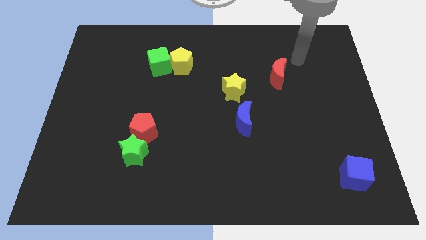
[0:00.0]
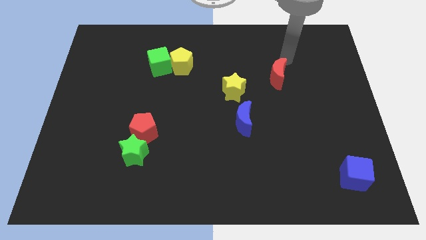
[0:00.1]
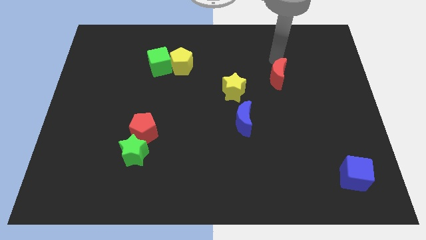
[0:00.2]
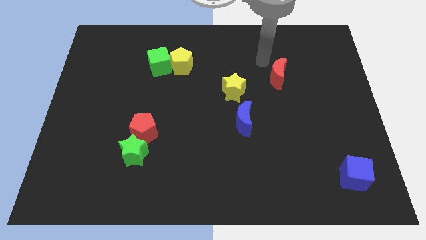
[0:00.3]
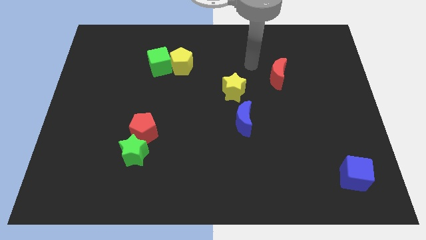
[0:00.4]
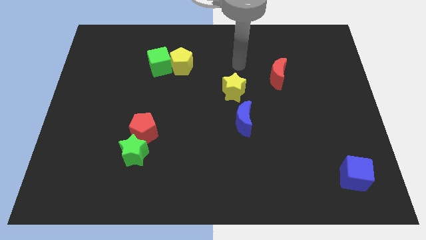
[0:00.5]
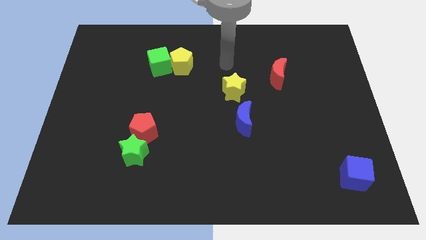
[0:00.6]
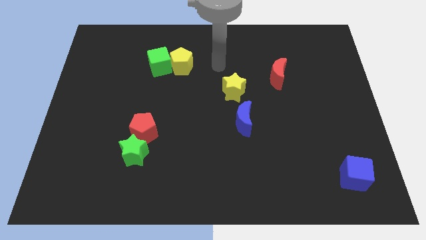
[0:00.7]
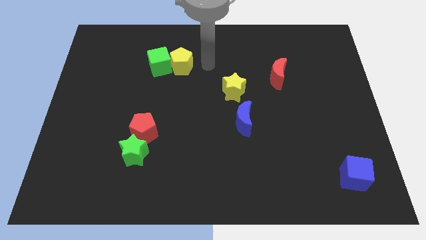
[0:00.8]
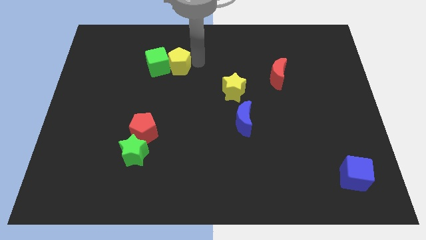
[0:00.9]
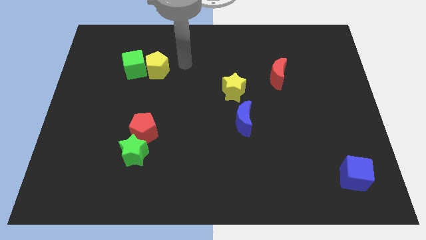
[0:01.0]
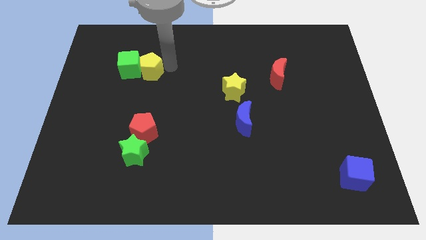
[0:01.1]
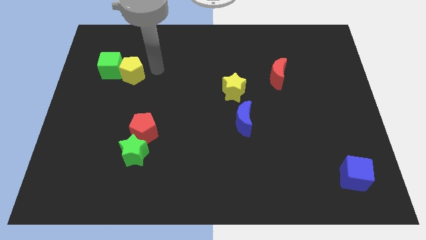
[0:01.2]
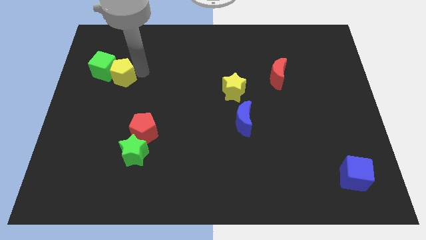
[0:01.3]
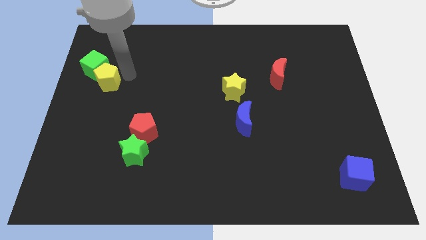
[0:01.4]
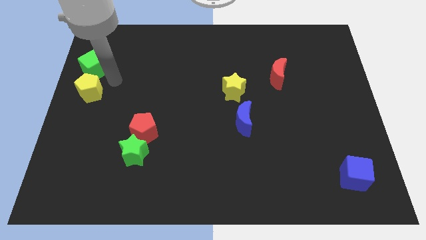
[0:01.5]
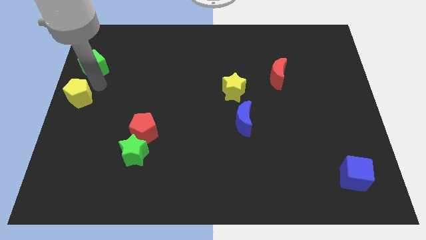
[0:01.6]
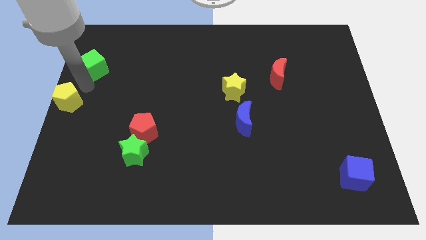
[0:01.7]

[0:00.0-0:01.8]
move the green cube away from the yellow pentagon

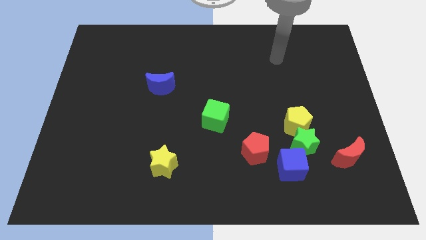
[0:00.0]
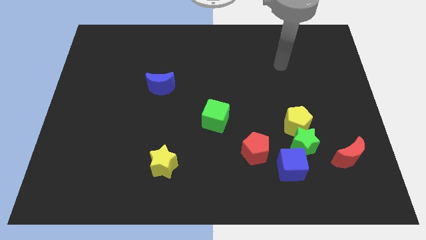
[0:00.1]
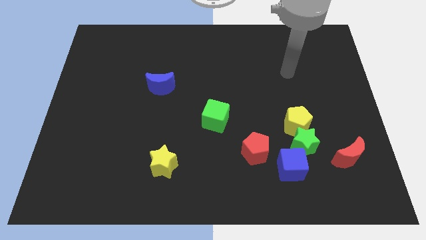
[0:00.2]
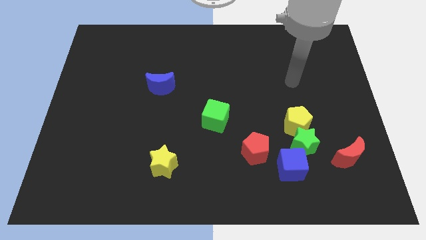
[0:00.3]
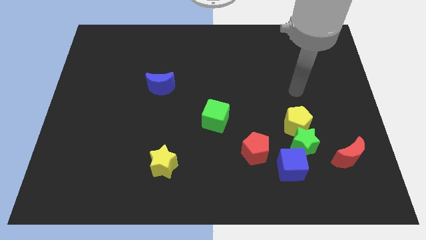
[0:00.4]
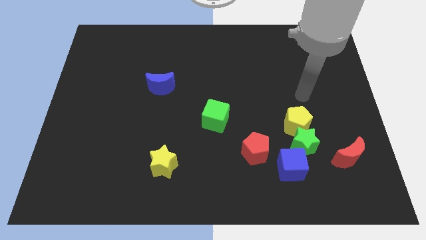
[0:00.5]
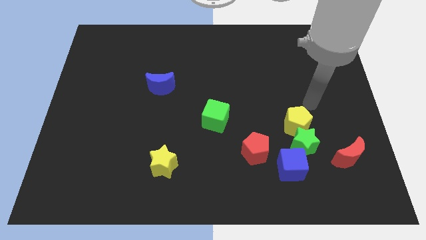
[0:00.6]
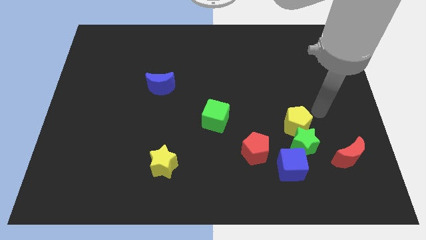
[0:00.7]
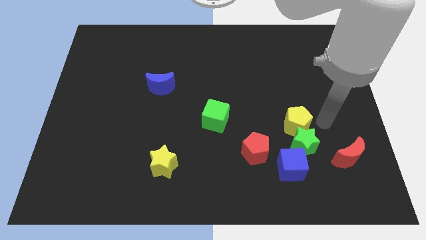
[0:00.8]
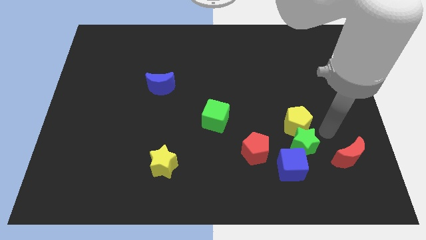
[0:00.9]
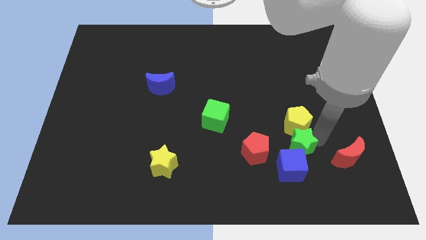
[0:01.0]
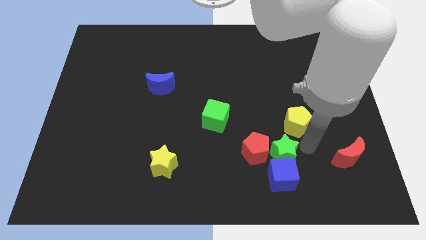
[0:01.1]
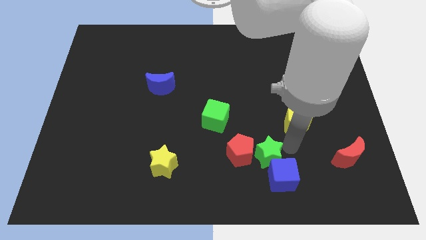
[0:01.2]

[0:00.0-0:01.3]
move the yellow pentagon away from the green star

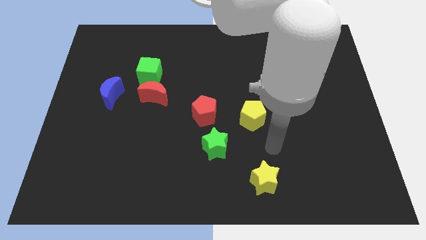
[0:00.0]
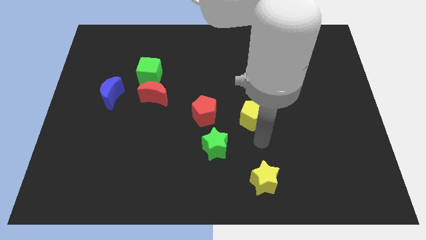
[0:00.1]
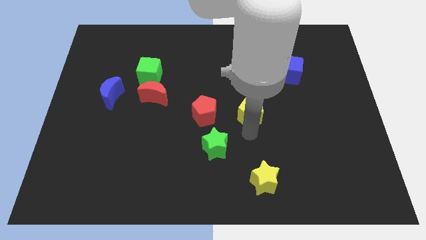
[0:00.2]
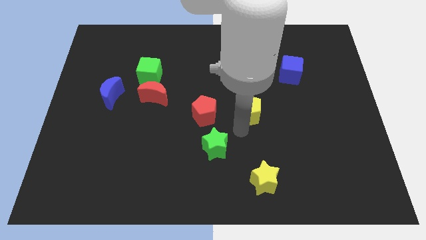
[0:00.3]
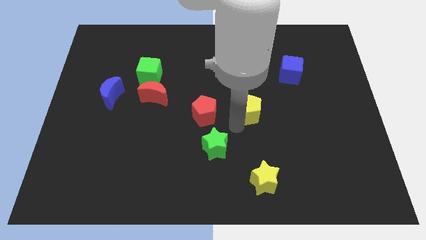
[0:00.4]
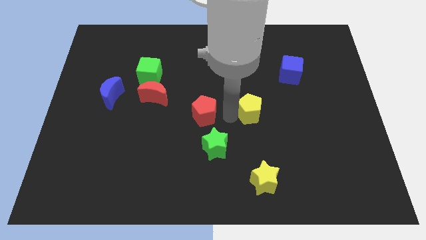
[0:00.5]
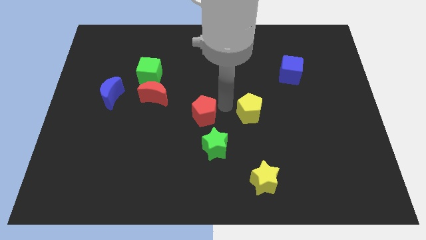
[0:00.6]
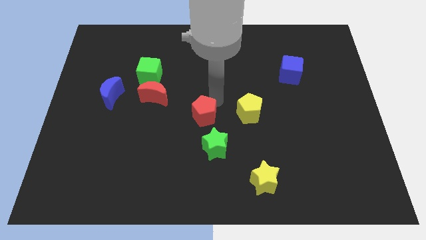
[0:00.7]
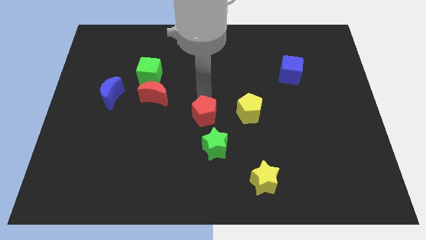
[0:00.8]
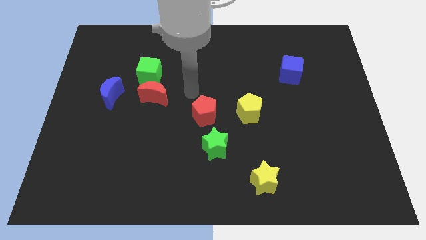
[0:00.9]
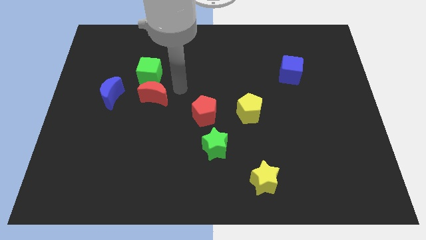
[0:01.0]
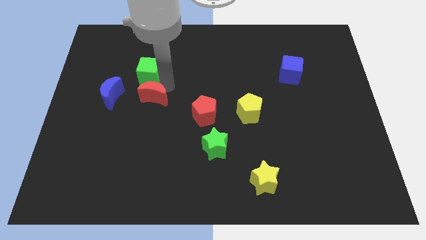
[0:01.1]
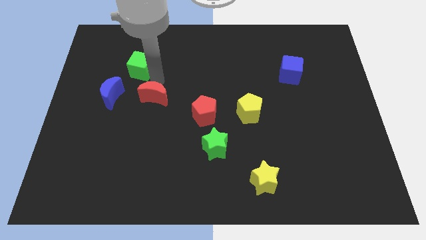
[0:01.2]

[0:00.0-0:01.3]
separate the red moon from the green cube

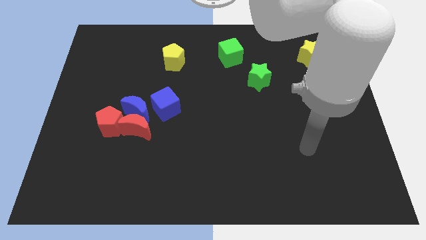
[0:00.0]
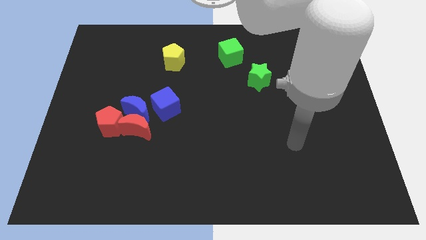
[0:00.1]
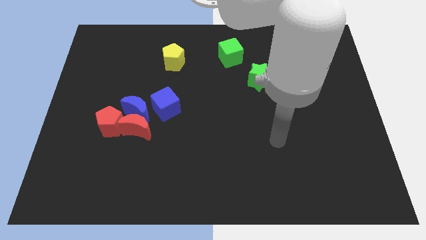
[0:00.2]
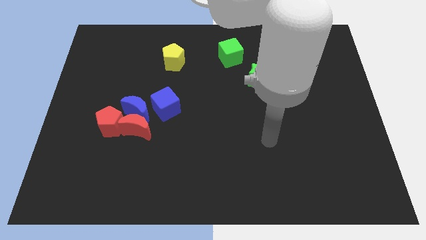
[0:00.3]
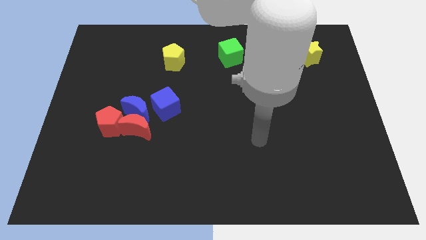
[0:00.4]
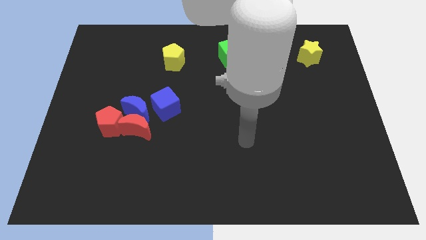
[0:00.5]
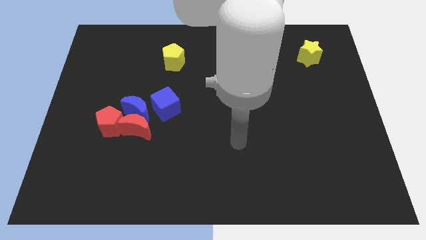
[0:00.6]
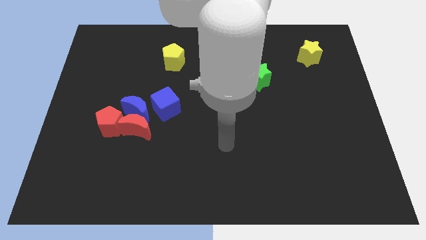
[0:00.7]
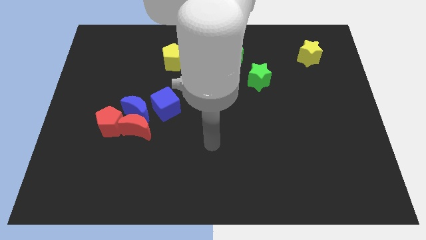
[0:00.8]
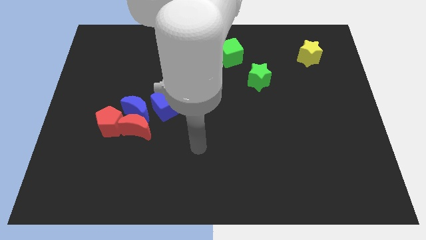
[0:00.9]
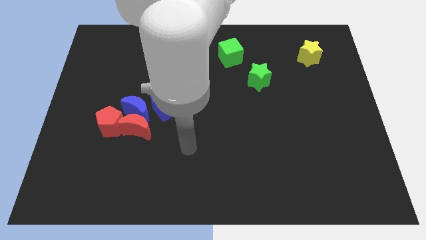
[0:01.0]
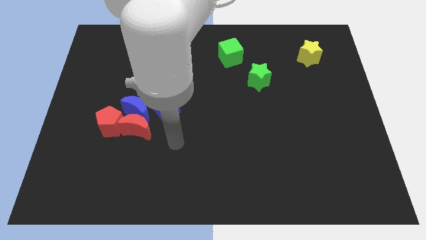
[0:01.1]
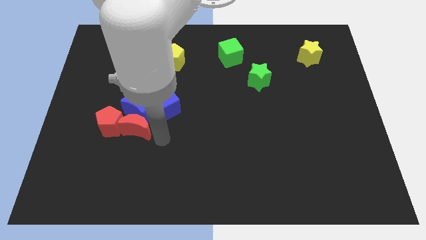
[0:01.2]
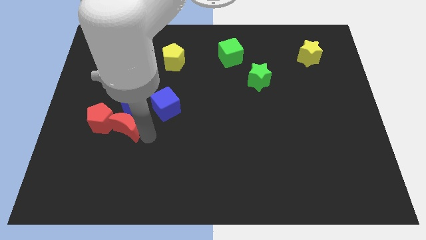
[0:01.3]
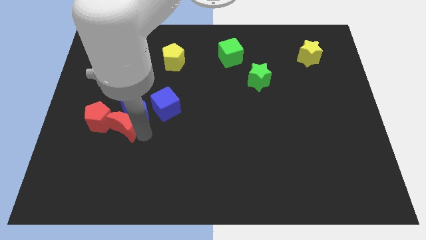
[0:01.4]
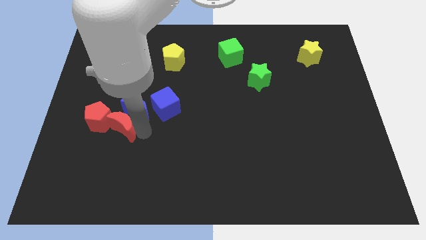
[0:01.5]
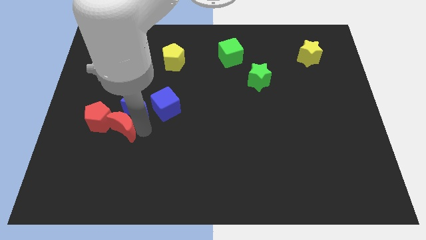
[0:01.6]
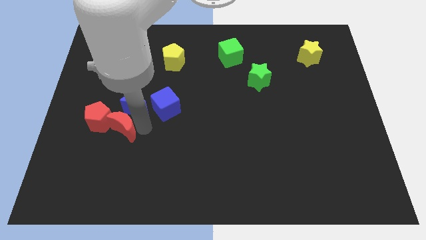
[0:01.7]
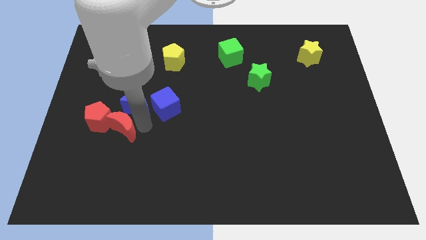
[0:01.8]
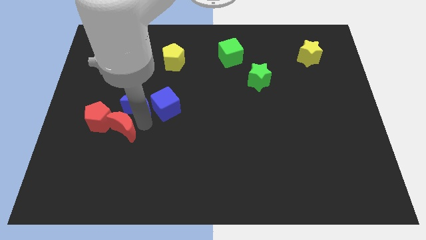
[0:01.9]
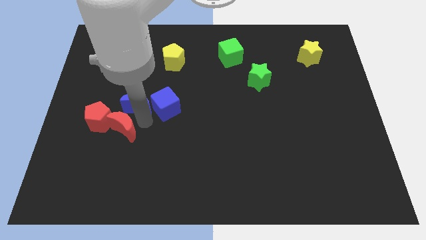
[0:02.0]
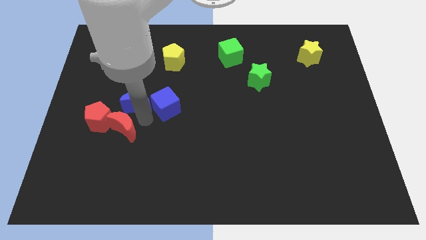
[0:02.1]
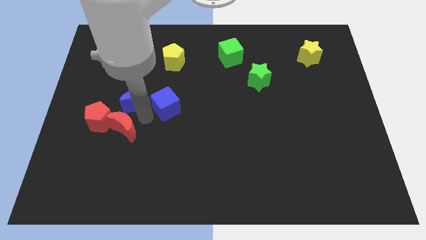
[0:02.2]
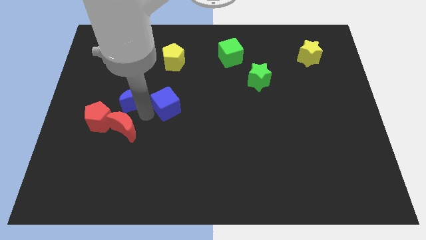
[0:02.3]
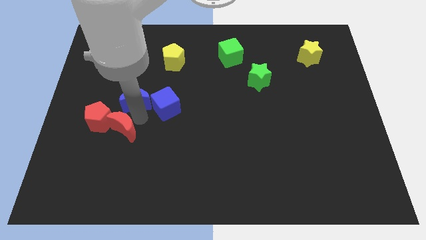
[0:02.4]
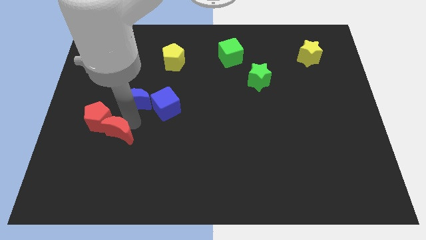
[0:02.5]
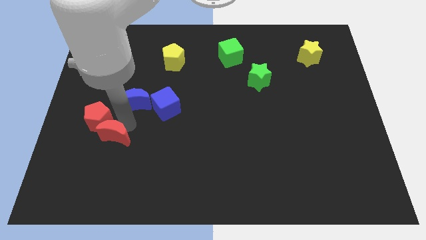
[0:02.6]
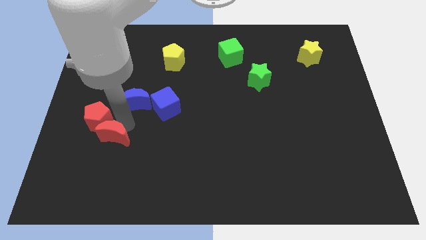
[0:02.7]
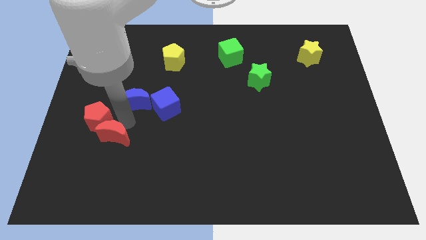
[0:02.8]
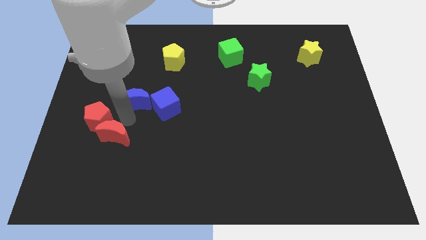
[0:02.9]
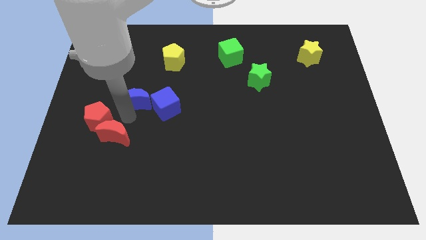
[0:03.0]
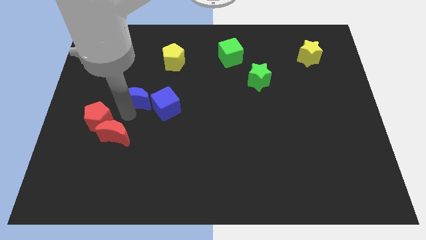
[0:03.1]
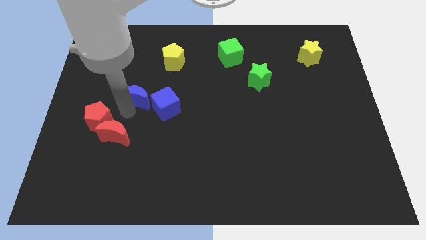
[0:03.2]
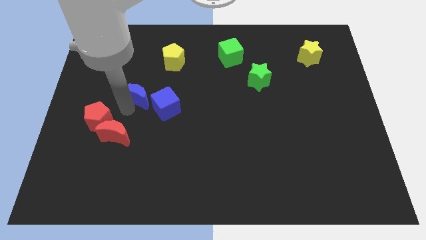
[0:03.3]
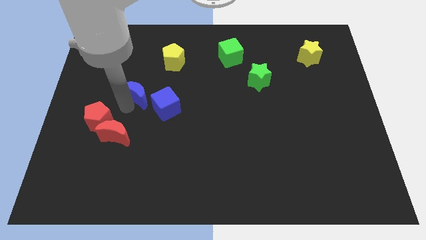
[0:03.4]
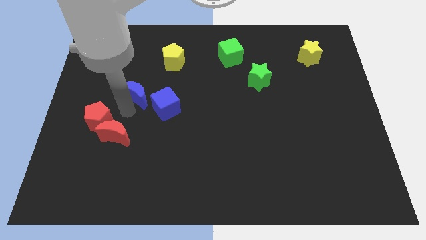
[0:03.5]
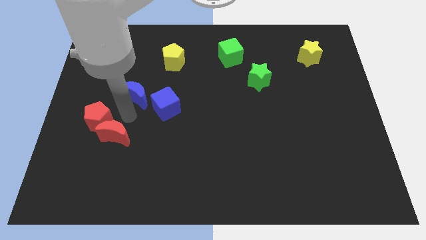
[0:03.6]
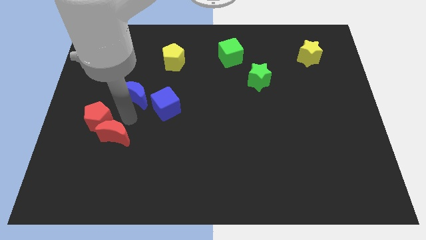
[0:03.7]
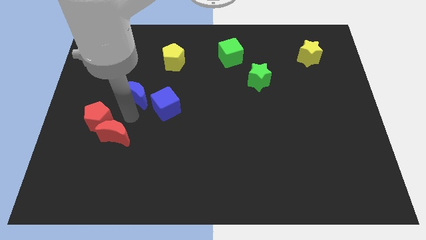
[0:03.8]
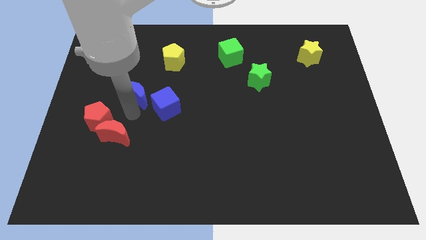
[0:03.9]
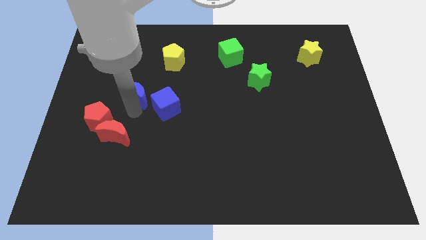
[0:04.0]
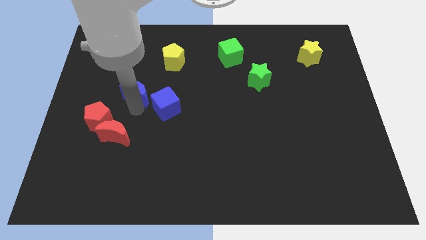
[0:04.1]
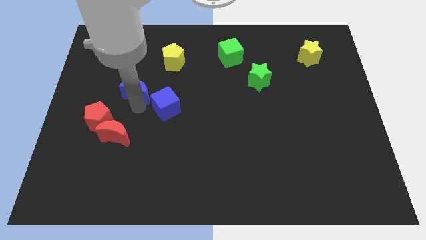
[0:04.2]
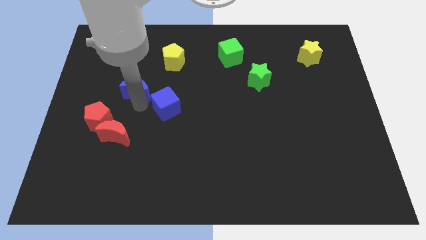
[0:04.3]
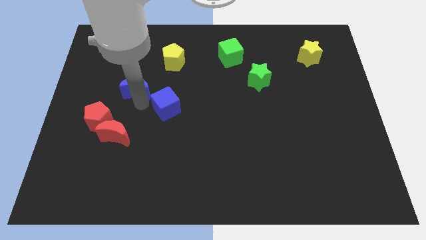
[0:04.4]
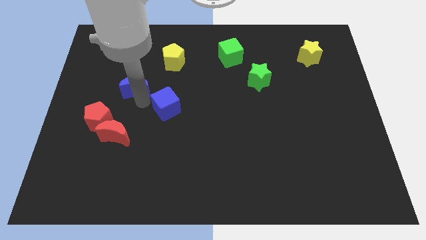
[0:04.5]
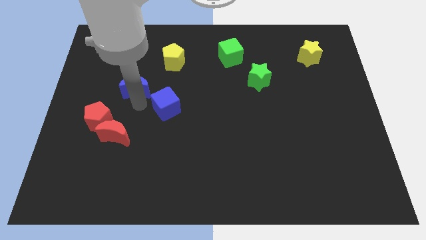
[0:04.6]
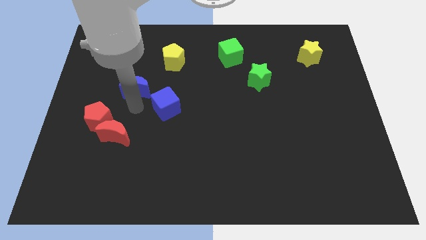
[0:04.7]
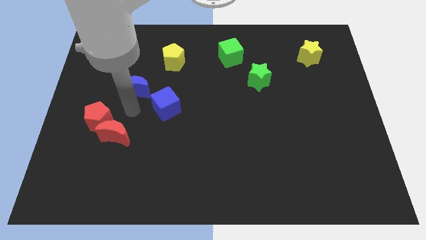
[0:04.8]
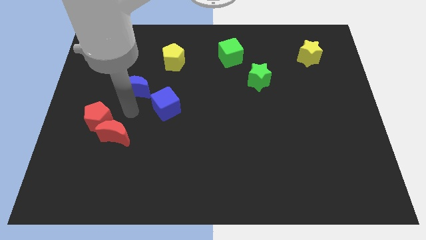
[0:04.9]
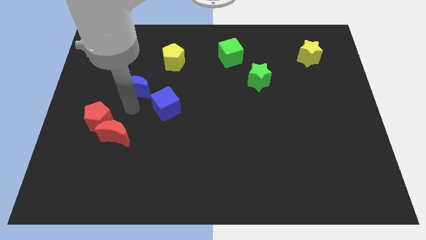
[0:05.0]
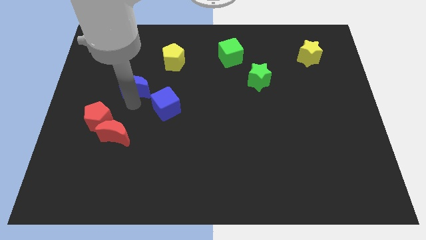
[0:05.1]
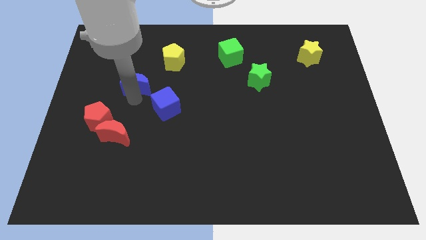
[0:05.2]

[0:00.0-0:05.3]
pull the blue moon apart from the clump
